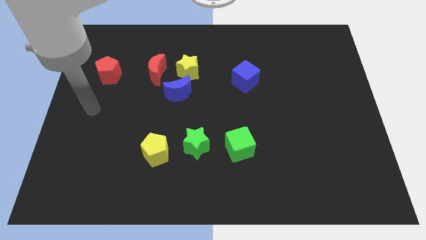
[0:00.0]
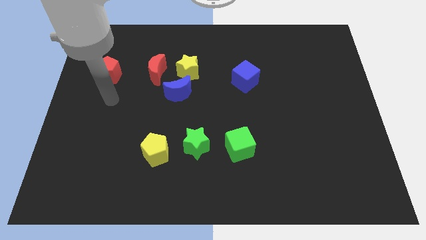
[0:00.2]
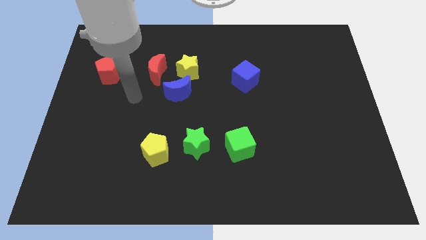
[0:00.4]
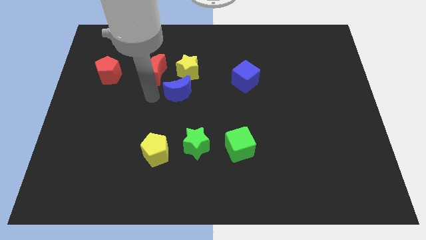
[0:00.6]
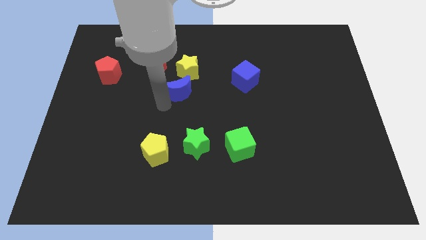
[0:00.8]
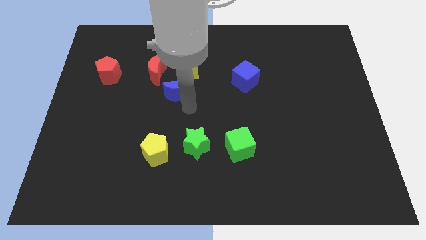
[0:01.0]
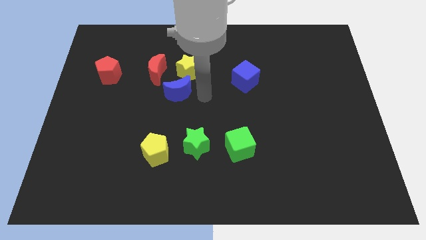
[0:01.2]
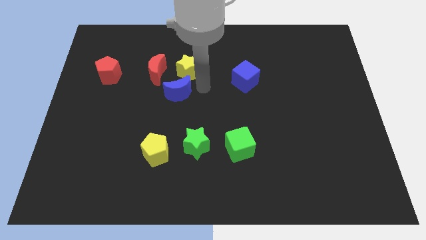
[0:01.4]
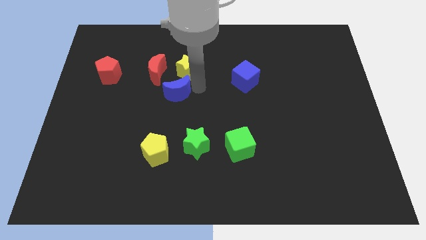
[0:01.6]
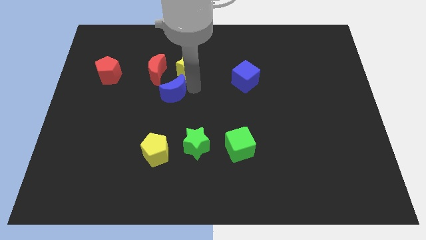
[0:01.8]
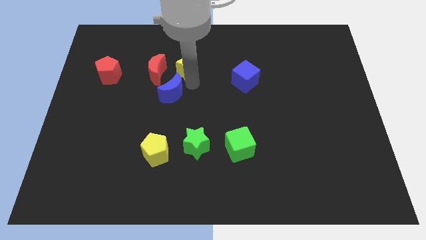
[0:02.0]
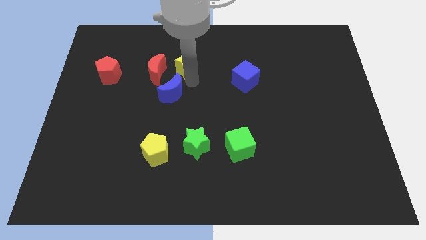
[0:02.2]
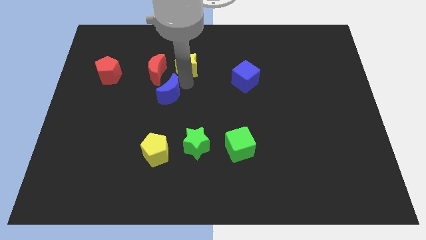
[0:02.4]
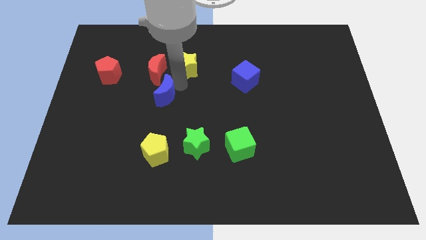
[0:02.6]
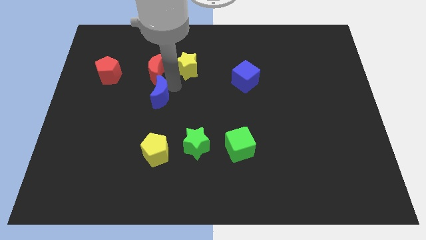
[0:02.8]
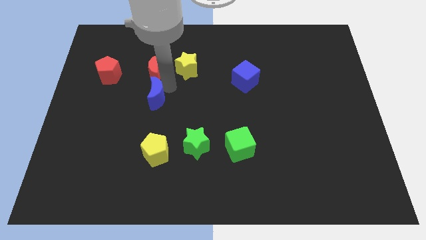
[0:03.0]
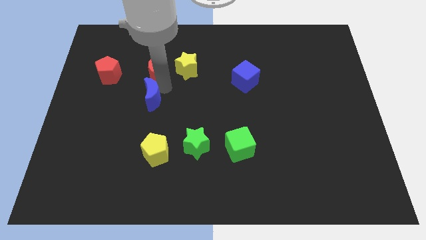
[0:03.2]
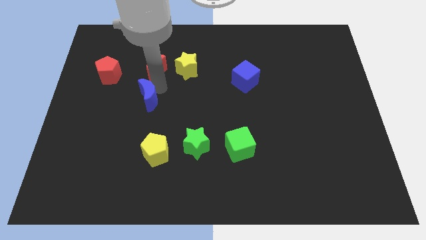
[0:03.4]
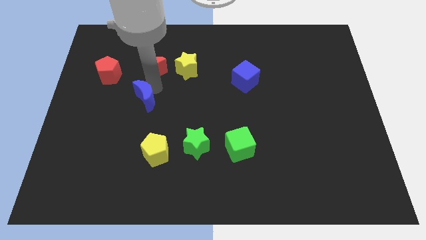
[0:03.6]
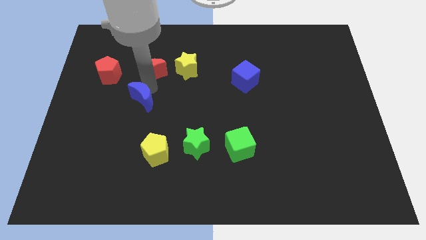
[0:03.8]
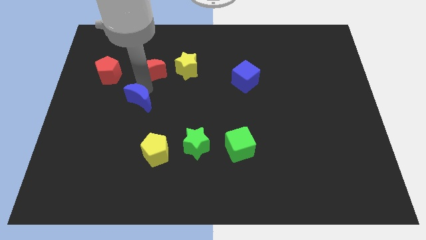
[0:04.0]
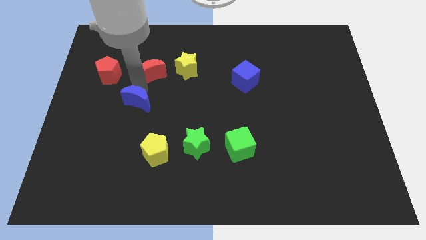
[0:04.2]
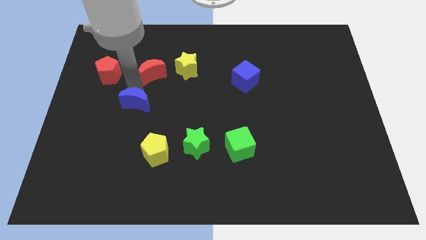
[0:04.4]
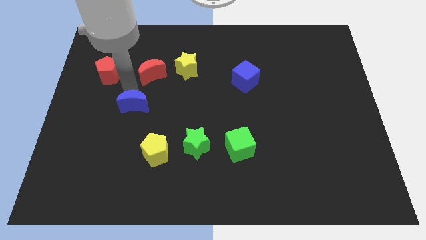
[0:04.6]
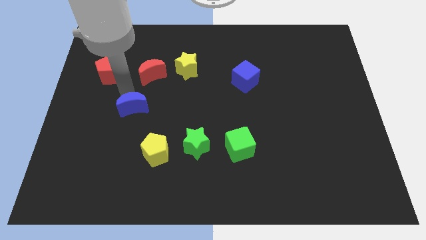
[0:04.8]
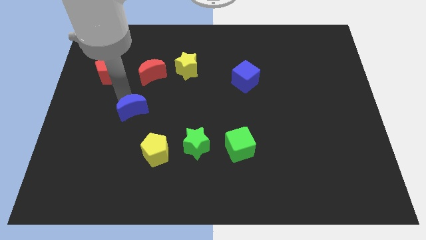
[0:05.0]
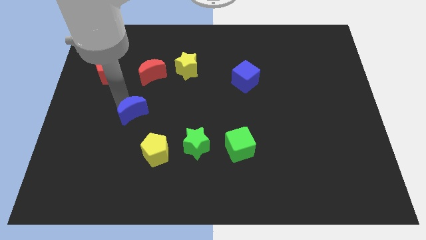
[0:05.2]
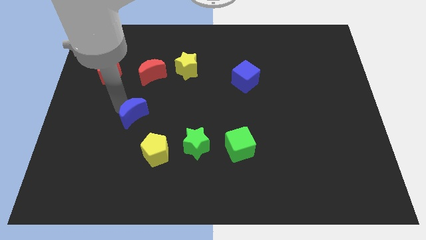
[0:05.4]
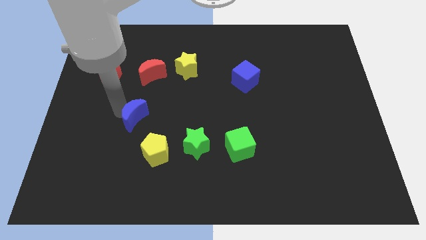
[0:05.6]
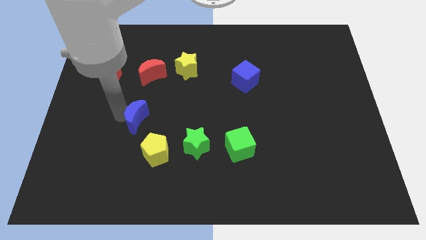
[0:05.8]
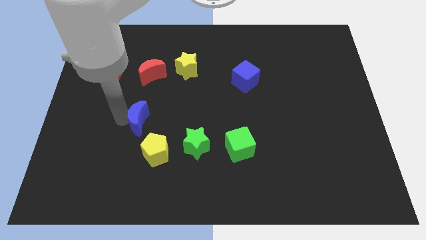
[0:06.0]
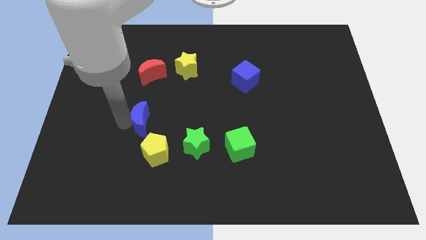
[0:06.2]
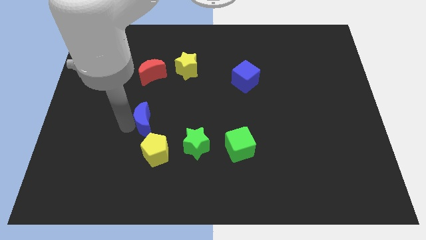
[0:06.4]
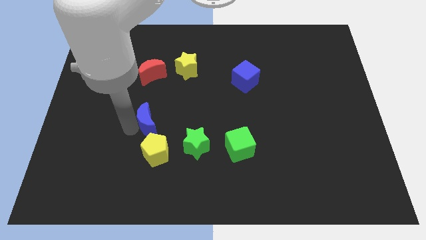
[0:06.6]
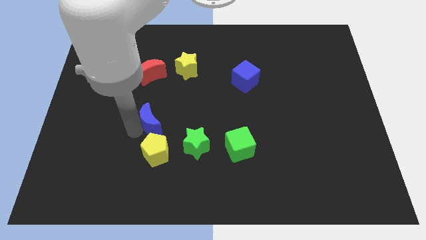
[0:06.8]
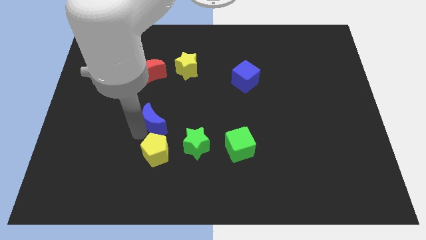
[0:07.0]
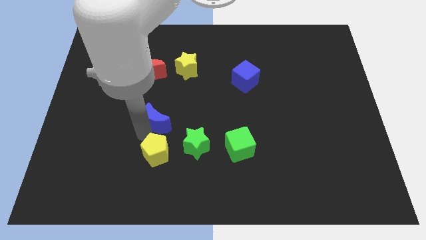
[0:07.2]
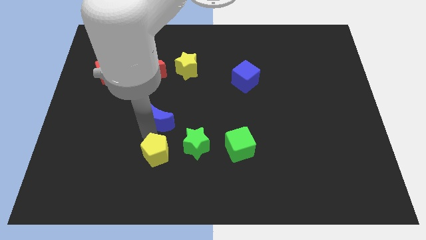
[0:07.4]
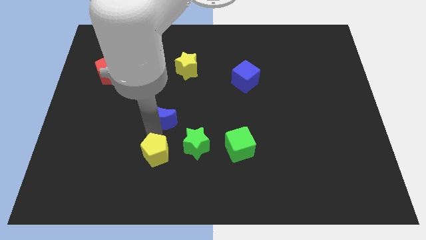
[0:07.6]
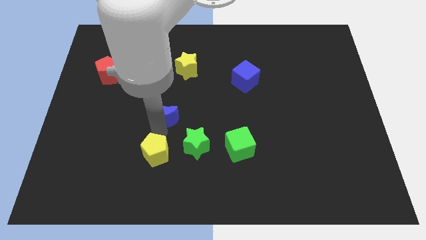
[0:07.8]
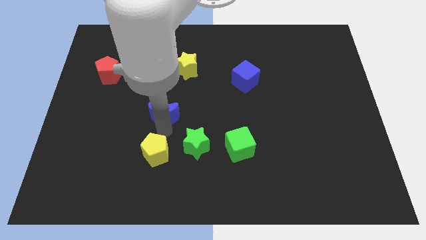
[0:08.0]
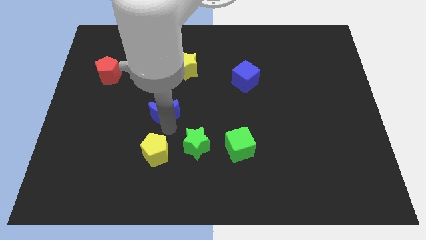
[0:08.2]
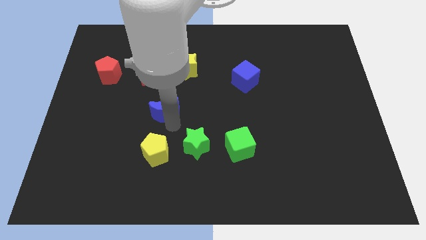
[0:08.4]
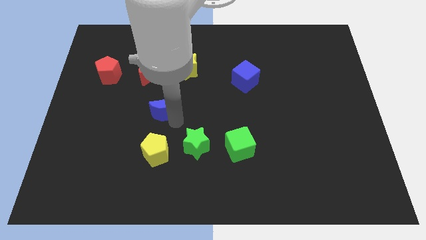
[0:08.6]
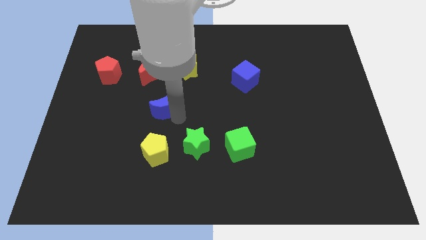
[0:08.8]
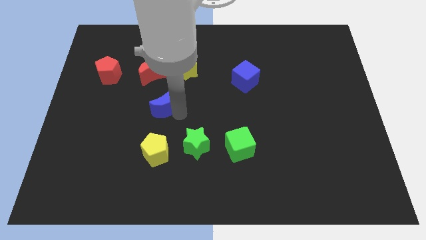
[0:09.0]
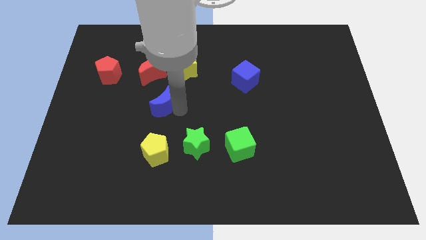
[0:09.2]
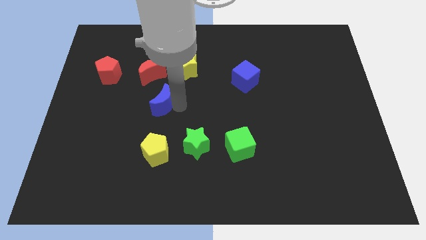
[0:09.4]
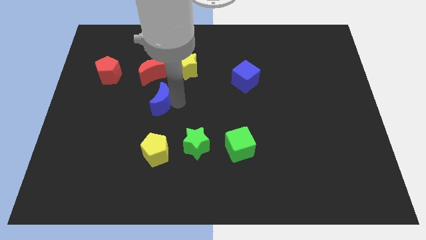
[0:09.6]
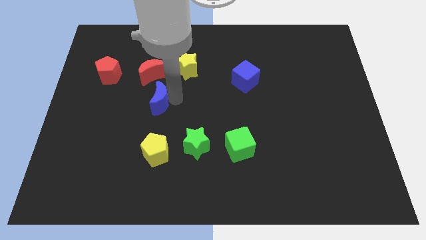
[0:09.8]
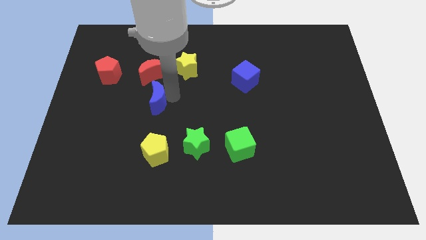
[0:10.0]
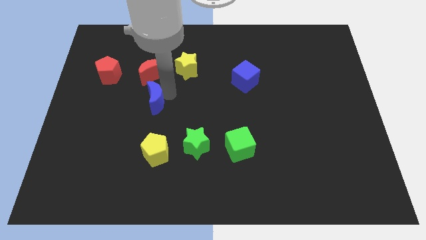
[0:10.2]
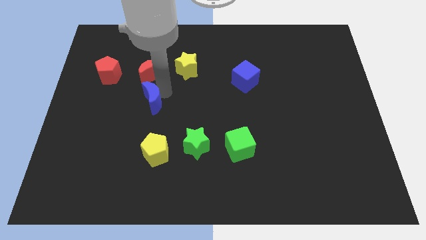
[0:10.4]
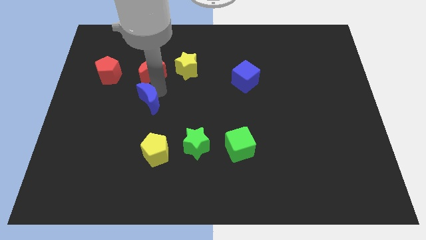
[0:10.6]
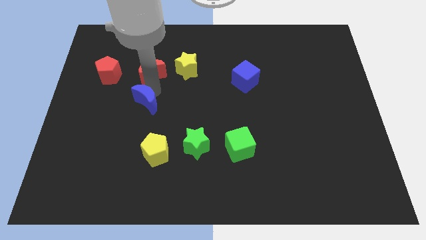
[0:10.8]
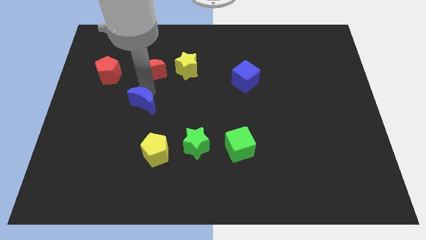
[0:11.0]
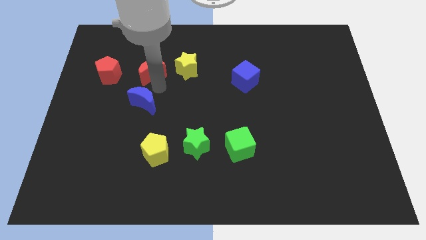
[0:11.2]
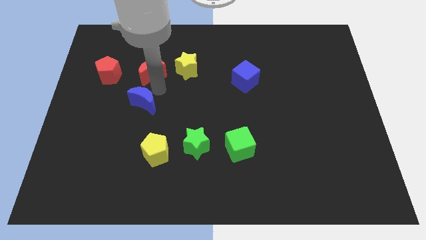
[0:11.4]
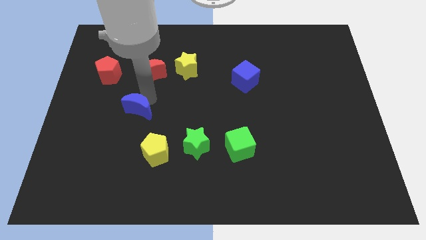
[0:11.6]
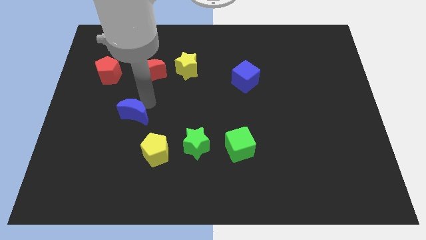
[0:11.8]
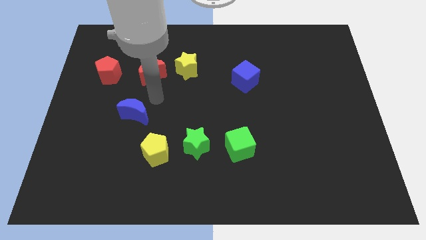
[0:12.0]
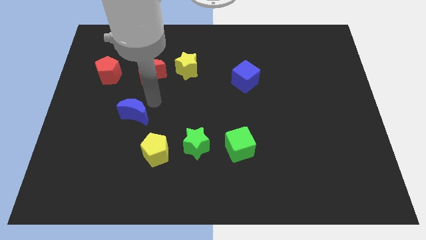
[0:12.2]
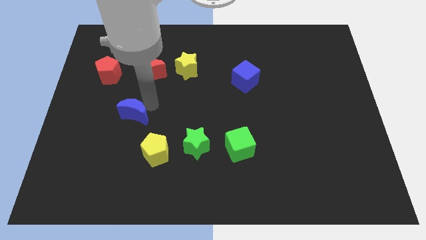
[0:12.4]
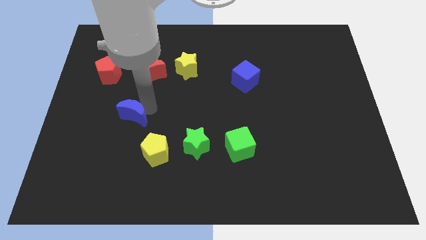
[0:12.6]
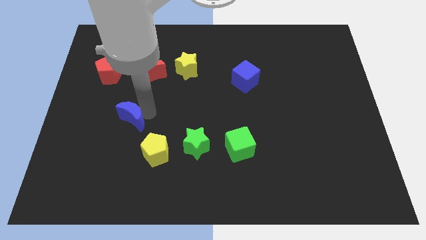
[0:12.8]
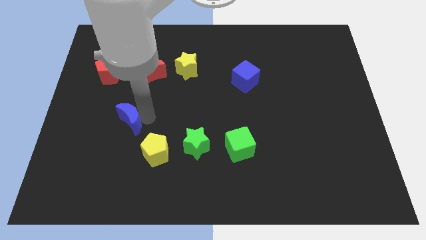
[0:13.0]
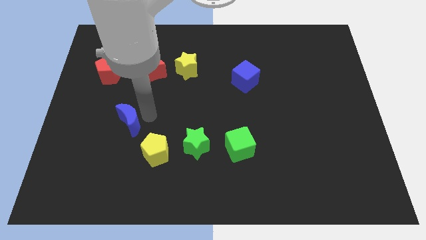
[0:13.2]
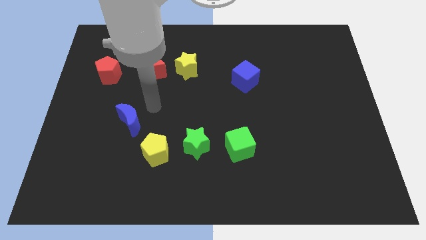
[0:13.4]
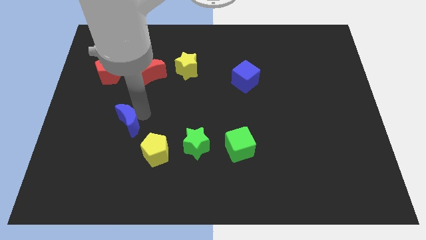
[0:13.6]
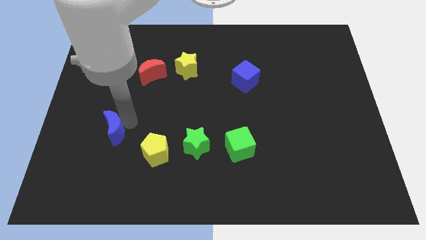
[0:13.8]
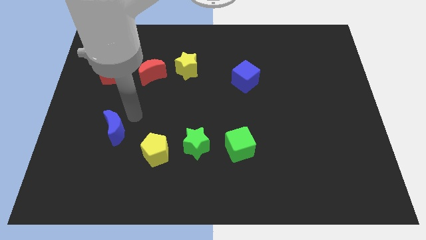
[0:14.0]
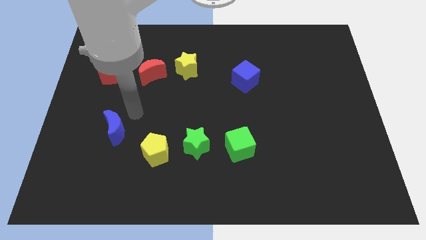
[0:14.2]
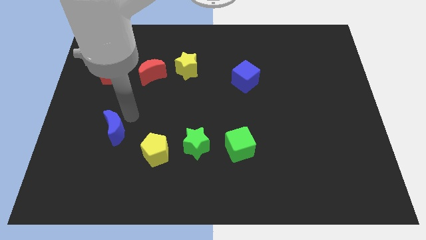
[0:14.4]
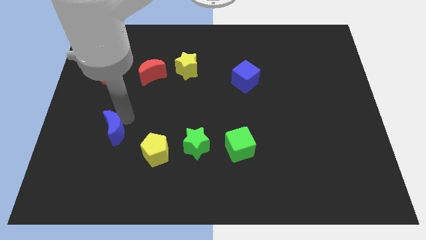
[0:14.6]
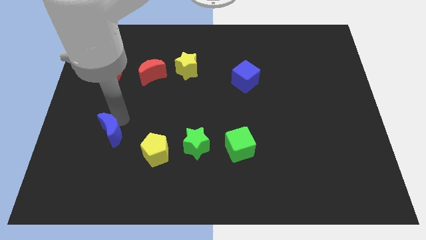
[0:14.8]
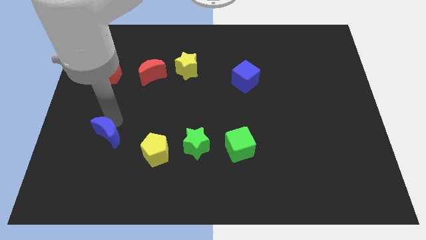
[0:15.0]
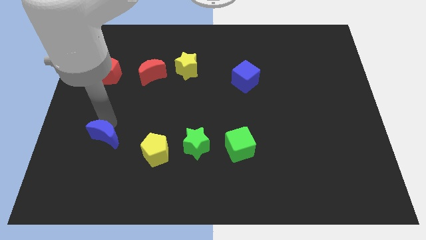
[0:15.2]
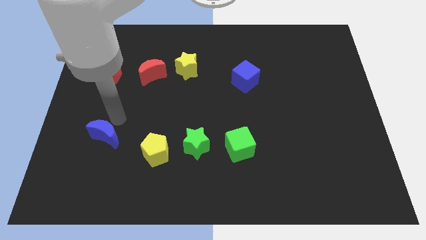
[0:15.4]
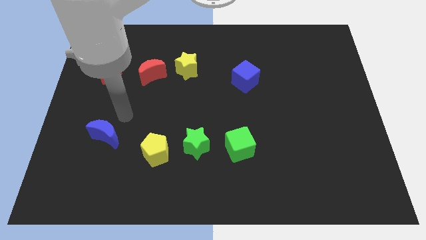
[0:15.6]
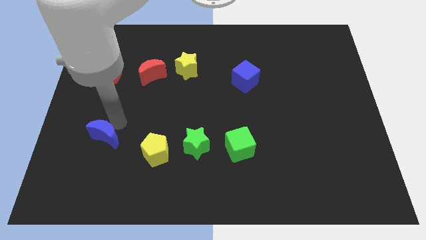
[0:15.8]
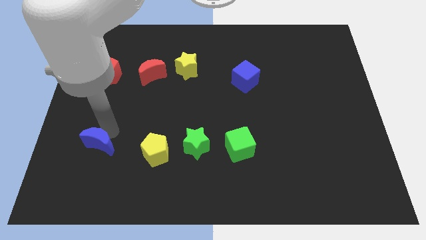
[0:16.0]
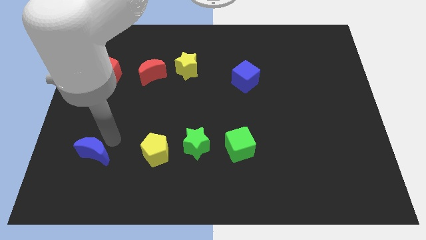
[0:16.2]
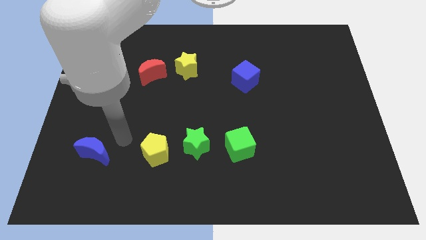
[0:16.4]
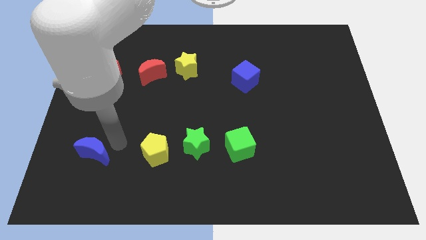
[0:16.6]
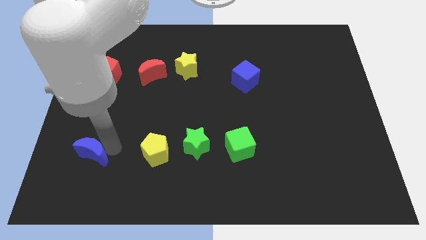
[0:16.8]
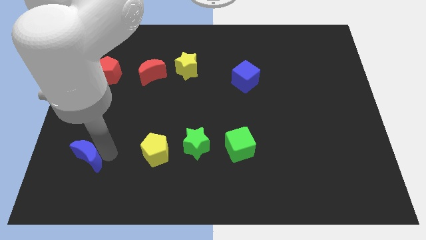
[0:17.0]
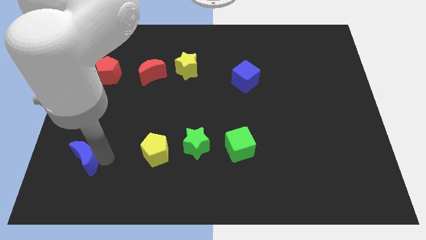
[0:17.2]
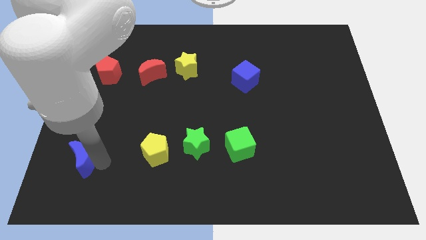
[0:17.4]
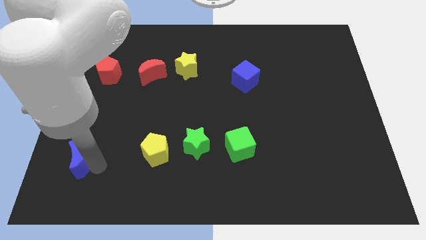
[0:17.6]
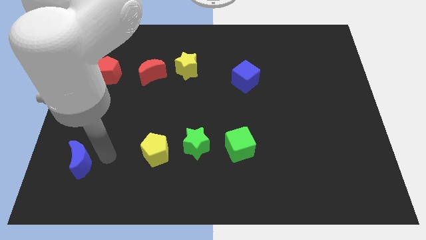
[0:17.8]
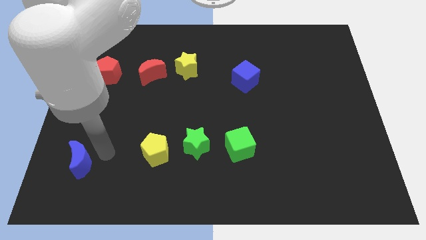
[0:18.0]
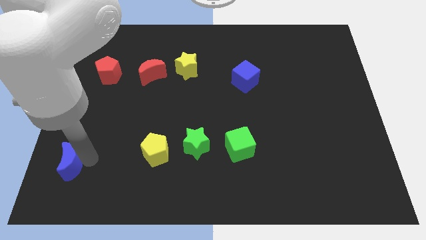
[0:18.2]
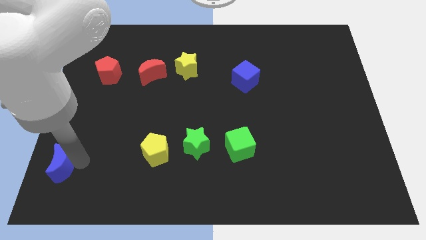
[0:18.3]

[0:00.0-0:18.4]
put the blue moon to the bottom left of the board
